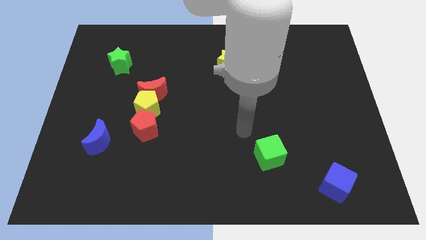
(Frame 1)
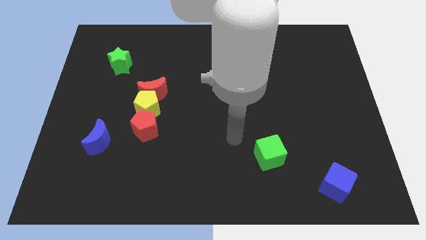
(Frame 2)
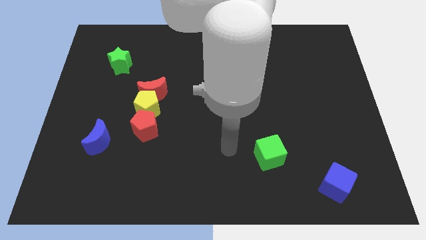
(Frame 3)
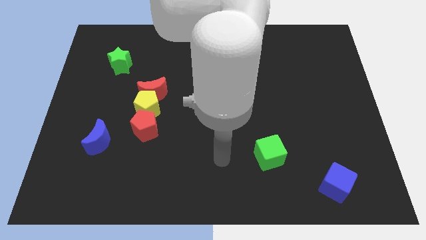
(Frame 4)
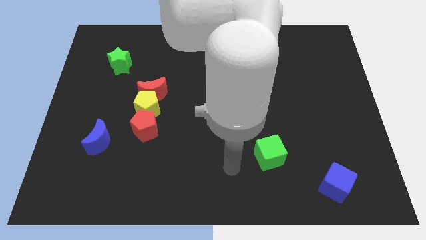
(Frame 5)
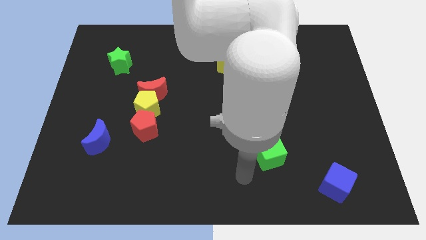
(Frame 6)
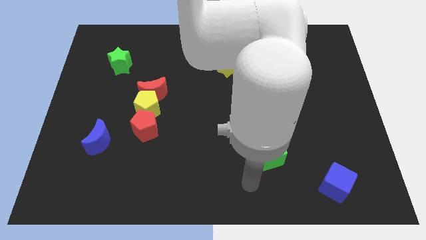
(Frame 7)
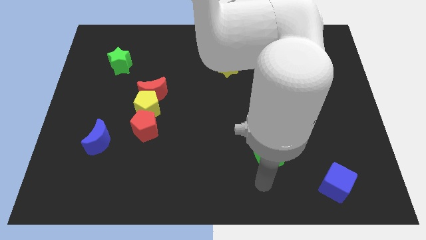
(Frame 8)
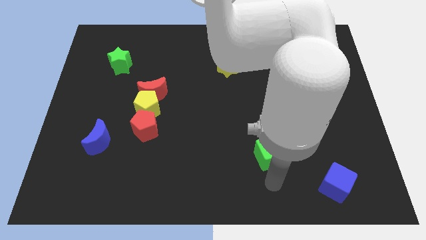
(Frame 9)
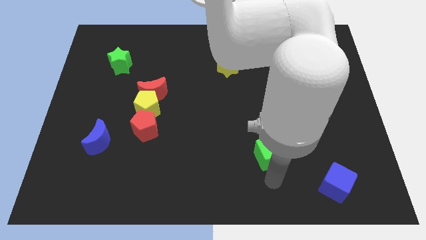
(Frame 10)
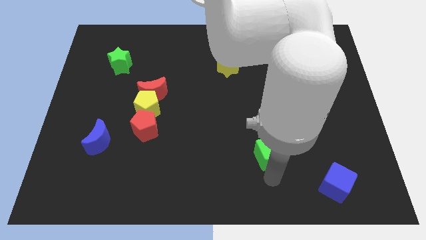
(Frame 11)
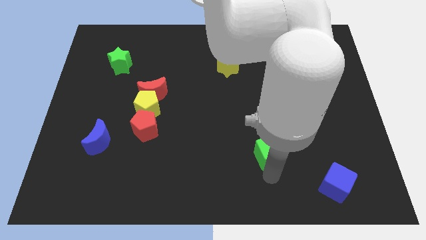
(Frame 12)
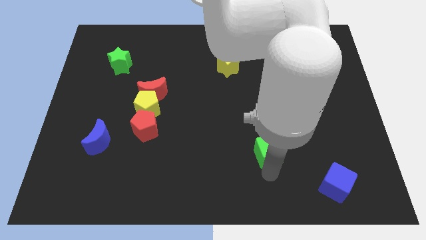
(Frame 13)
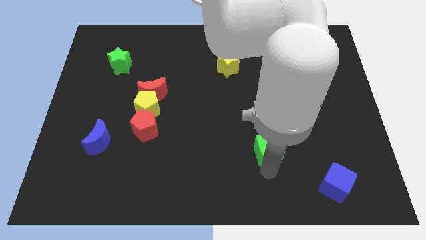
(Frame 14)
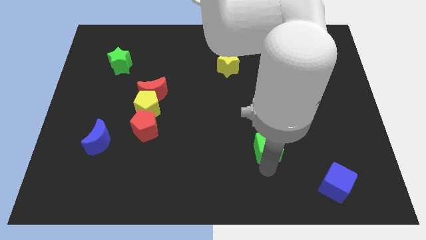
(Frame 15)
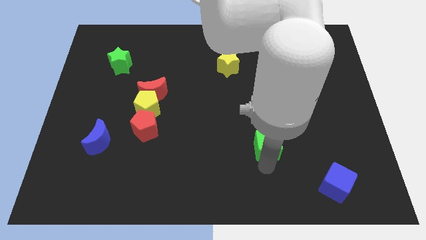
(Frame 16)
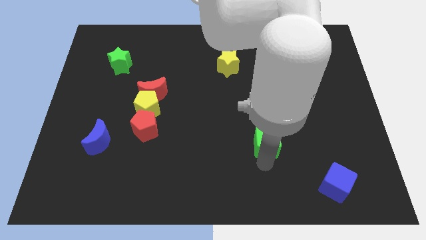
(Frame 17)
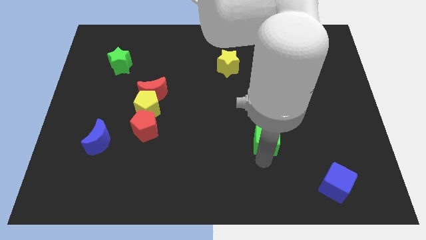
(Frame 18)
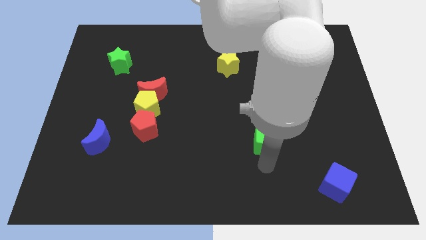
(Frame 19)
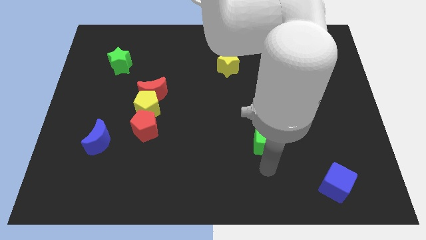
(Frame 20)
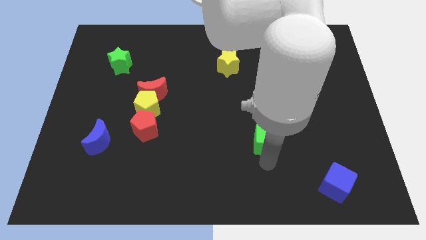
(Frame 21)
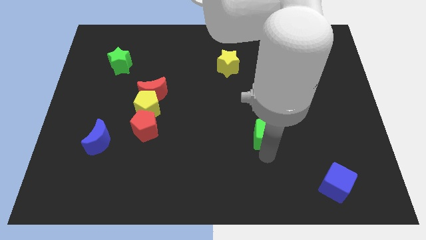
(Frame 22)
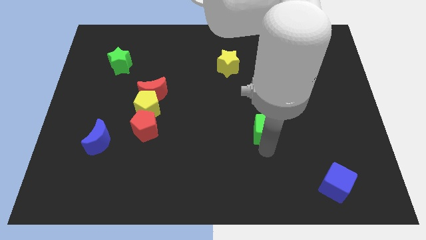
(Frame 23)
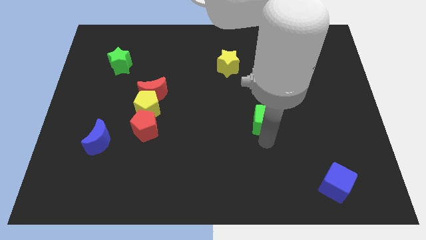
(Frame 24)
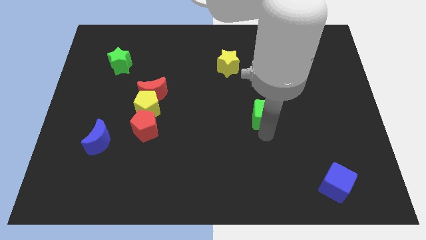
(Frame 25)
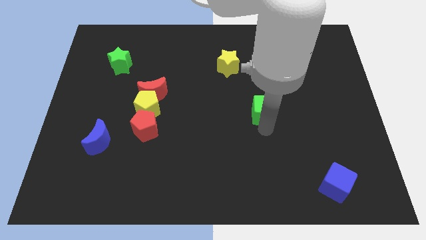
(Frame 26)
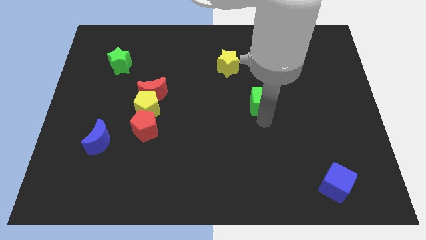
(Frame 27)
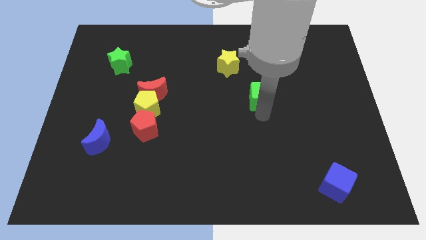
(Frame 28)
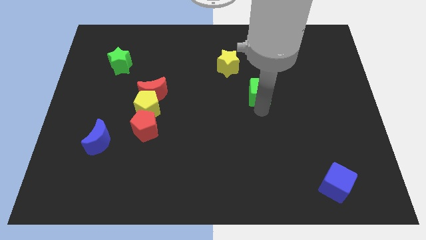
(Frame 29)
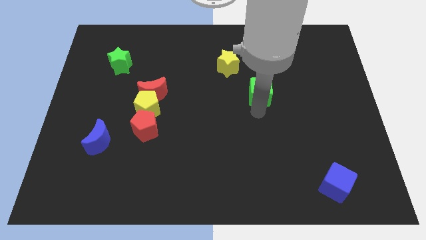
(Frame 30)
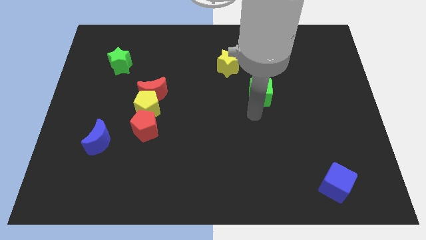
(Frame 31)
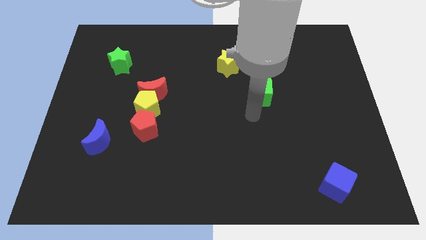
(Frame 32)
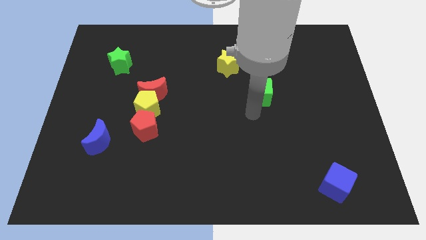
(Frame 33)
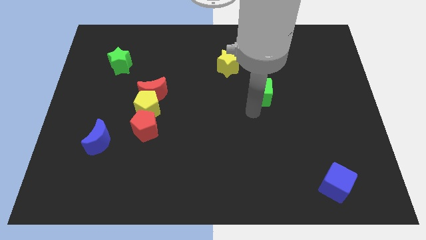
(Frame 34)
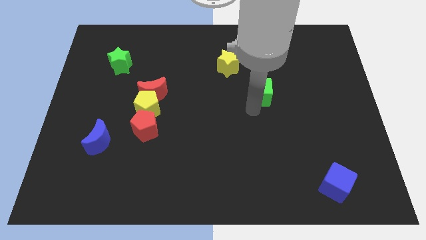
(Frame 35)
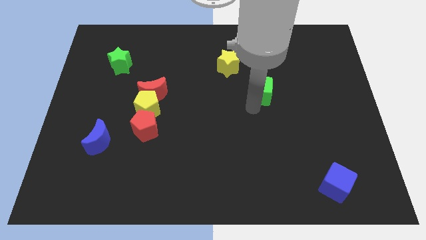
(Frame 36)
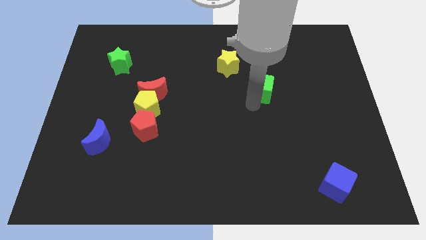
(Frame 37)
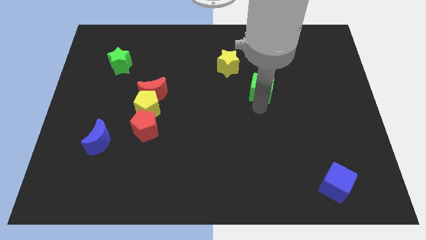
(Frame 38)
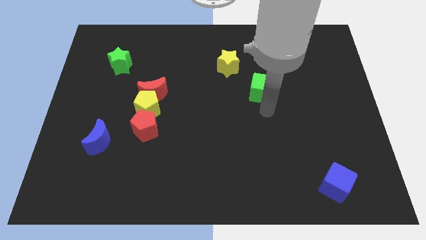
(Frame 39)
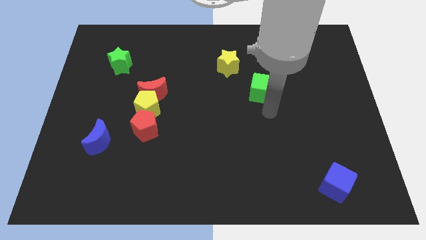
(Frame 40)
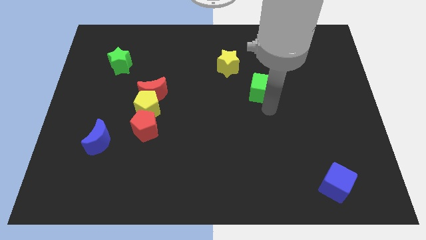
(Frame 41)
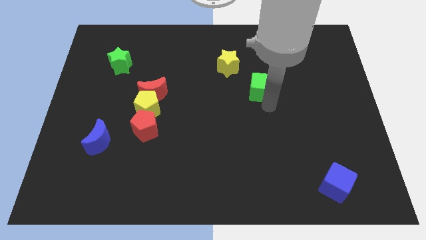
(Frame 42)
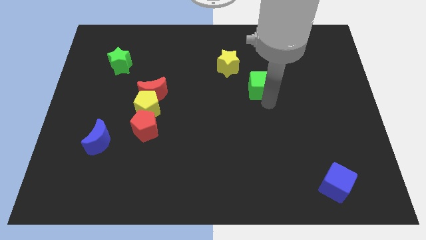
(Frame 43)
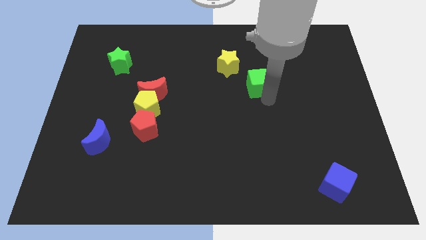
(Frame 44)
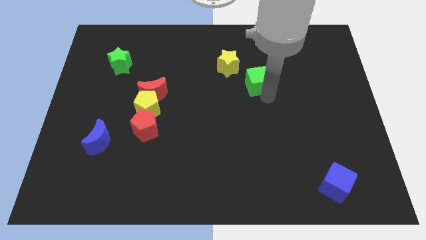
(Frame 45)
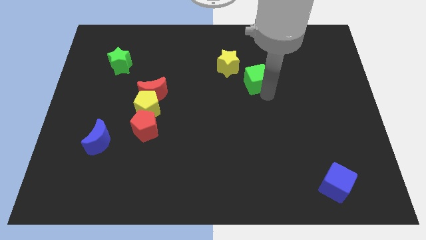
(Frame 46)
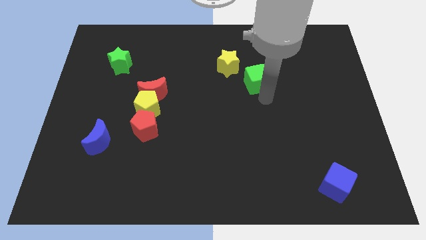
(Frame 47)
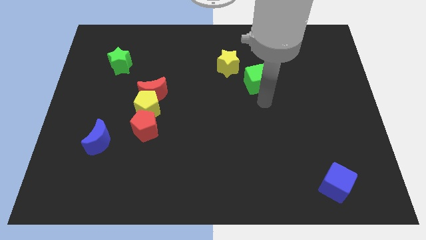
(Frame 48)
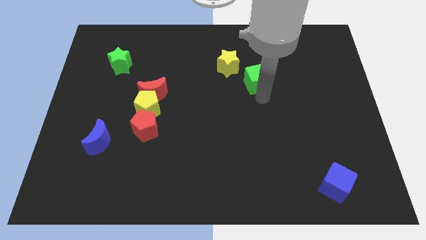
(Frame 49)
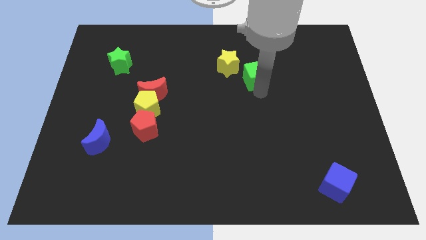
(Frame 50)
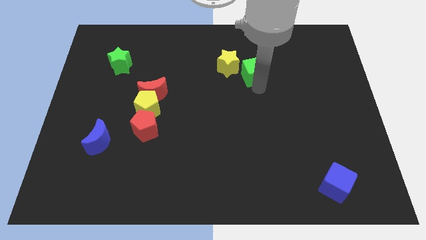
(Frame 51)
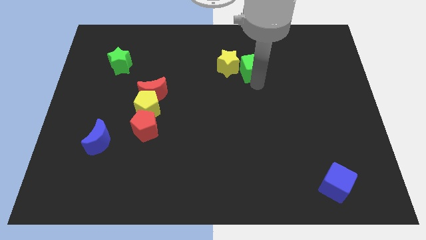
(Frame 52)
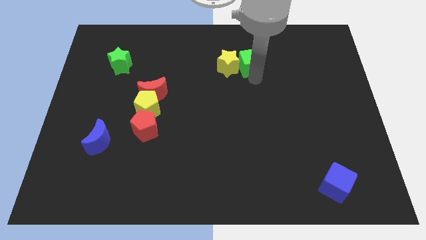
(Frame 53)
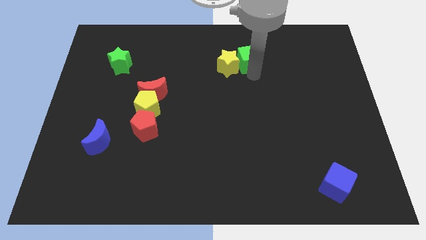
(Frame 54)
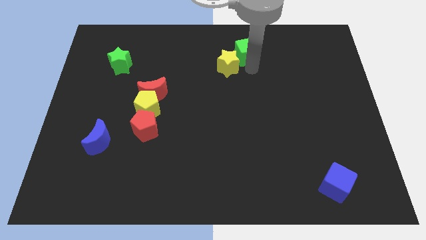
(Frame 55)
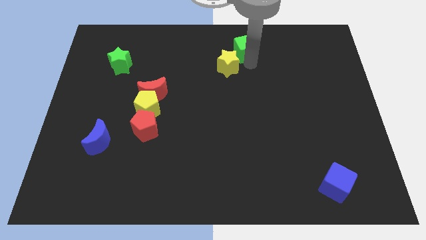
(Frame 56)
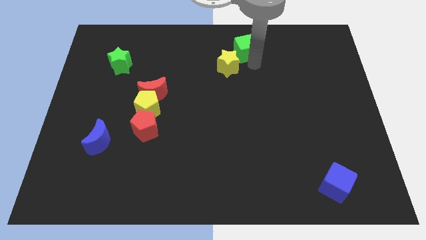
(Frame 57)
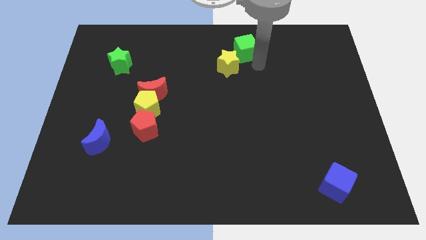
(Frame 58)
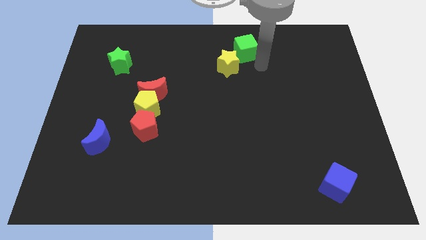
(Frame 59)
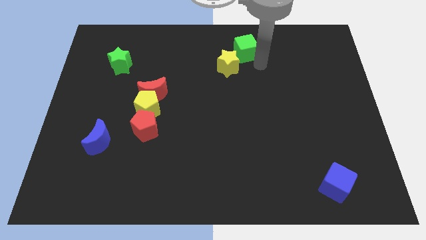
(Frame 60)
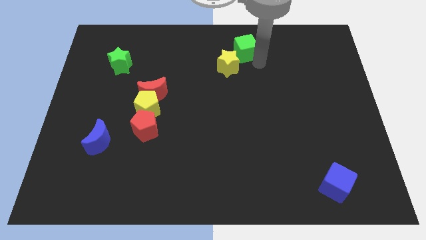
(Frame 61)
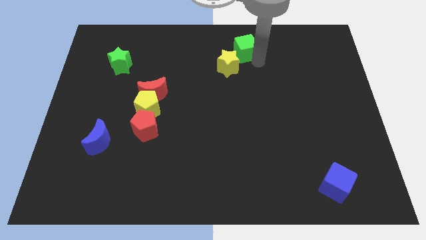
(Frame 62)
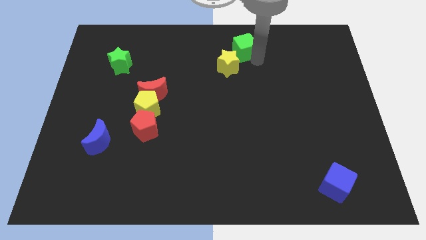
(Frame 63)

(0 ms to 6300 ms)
put the green cube to the towards your base

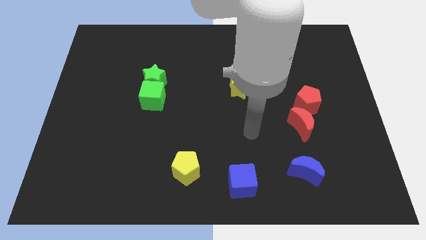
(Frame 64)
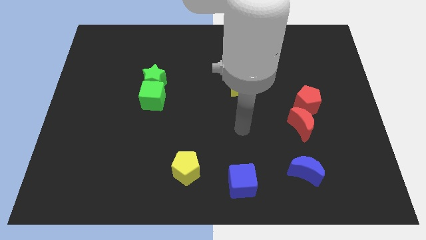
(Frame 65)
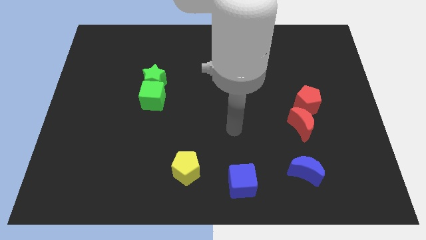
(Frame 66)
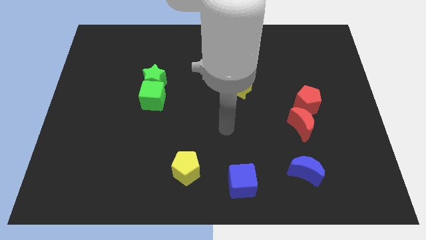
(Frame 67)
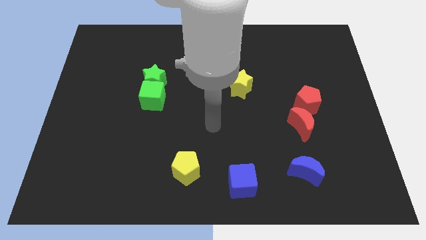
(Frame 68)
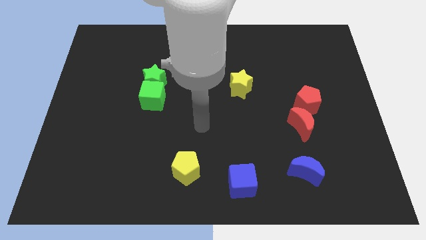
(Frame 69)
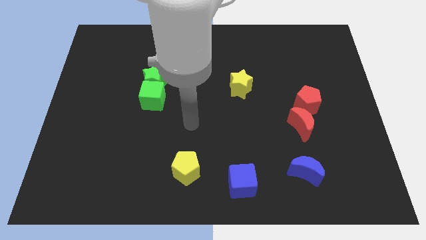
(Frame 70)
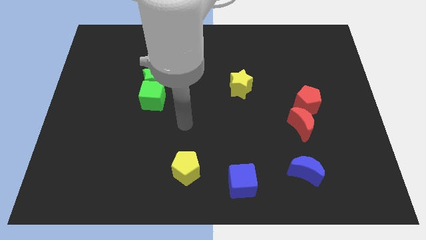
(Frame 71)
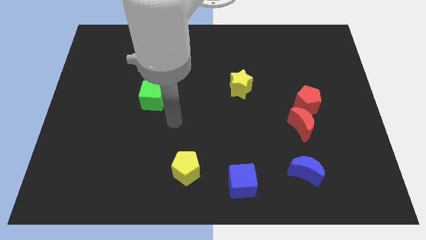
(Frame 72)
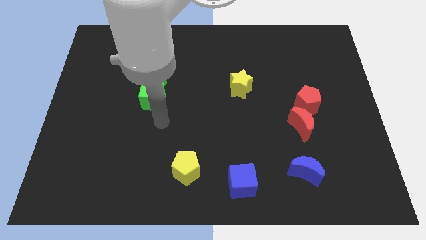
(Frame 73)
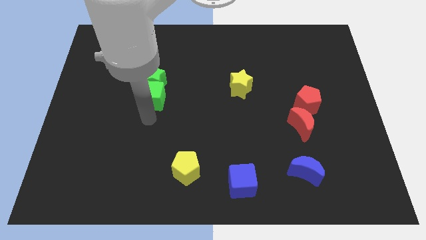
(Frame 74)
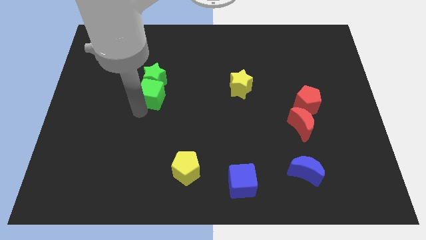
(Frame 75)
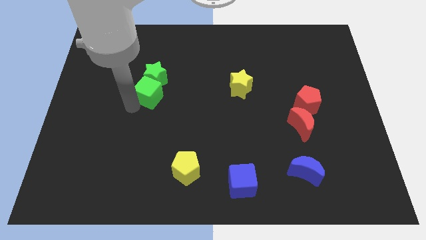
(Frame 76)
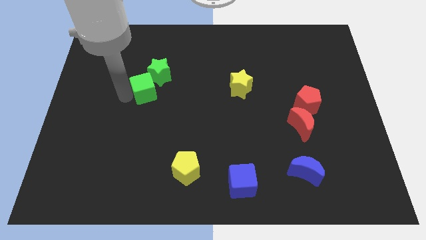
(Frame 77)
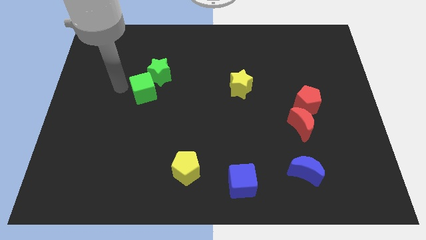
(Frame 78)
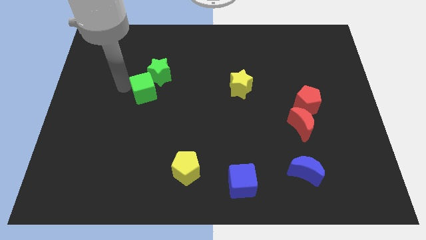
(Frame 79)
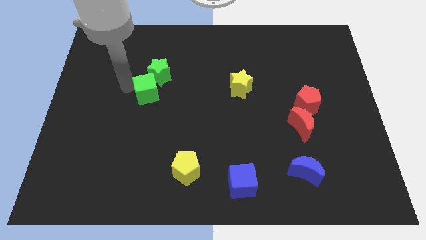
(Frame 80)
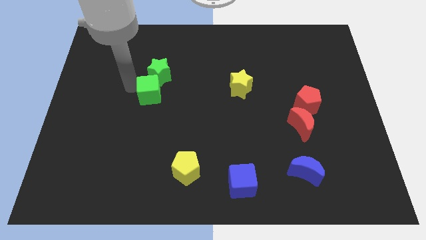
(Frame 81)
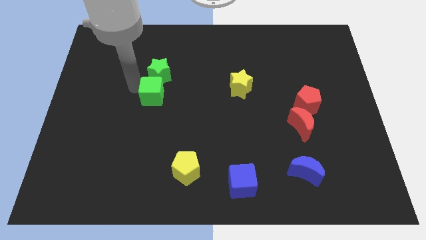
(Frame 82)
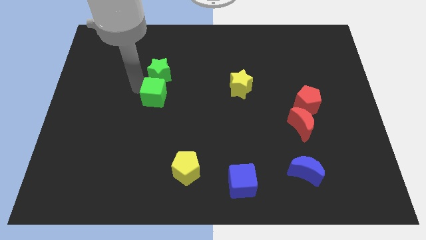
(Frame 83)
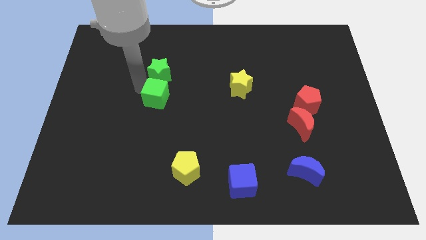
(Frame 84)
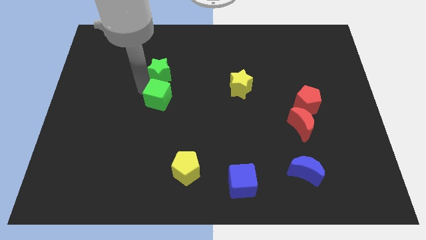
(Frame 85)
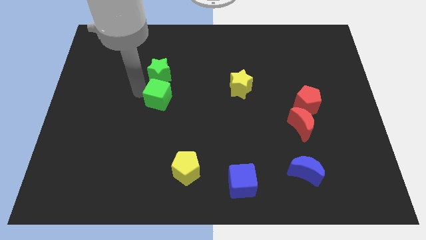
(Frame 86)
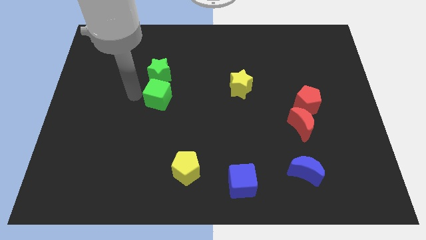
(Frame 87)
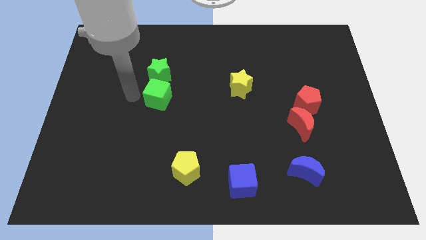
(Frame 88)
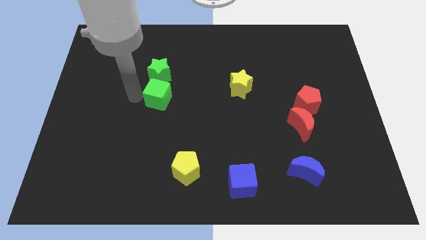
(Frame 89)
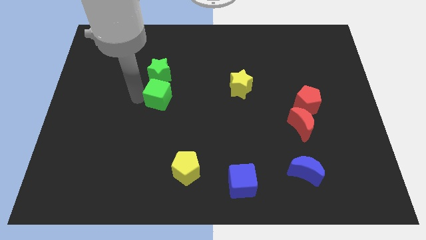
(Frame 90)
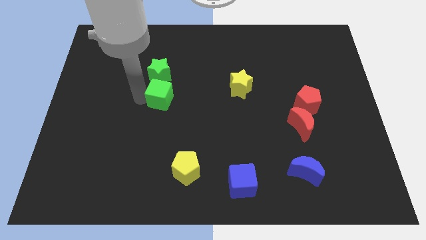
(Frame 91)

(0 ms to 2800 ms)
push the green cube to the center of the board
